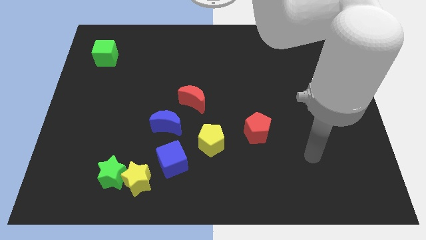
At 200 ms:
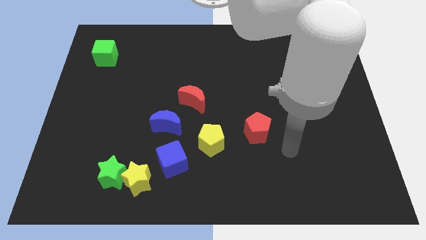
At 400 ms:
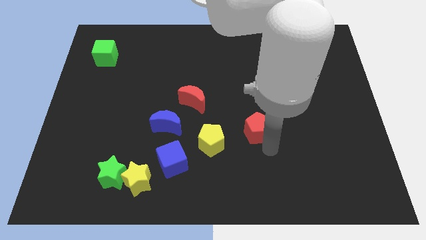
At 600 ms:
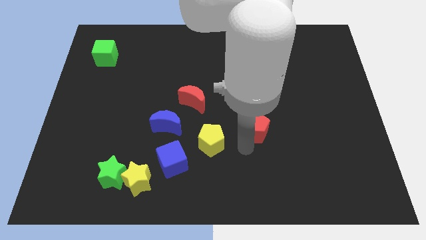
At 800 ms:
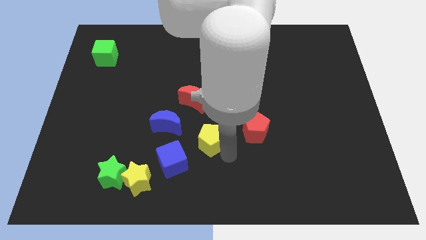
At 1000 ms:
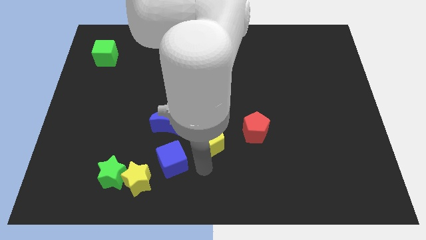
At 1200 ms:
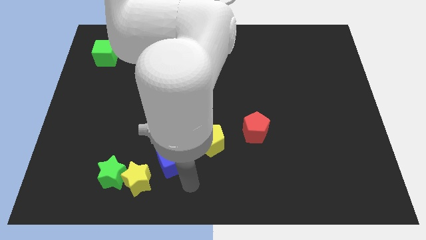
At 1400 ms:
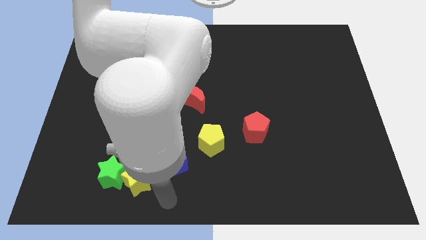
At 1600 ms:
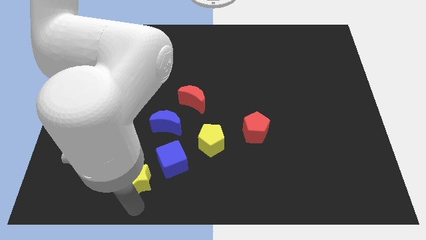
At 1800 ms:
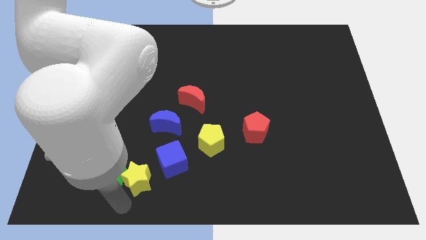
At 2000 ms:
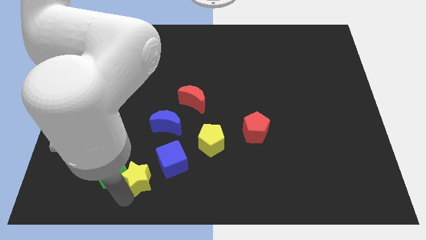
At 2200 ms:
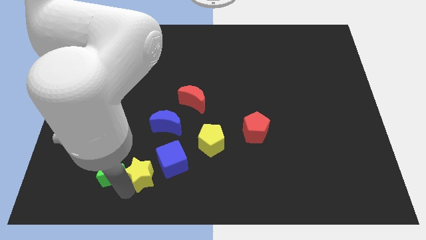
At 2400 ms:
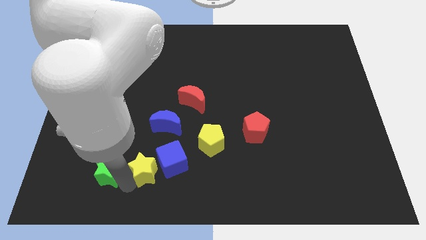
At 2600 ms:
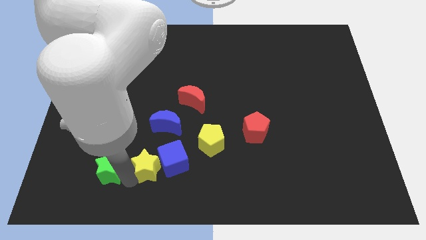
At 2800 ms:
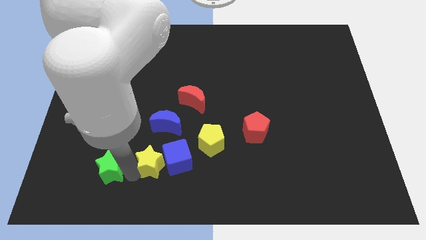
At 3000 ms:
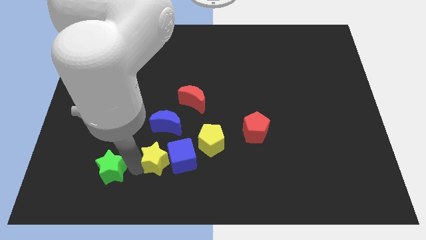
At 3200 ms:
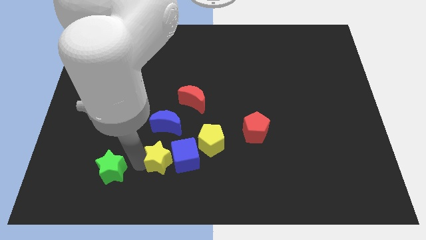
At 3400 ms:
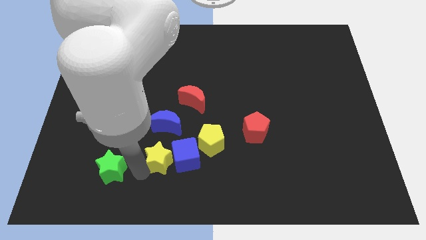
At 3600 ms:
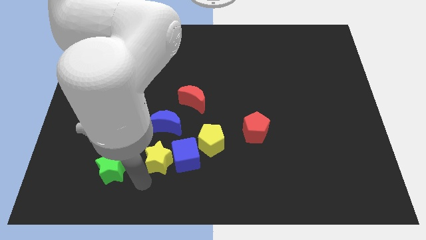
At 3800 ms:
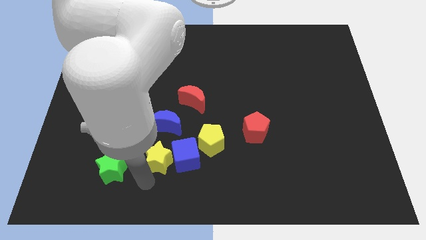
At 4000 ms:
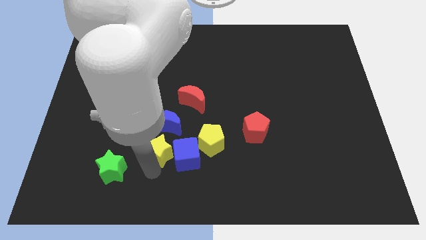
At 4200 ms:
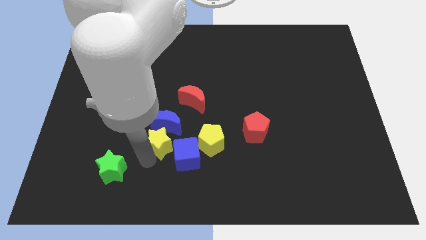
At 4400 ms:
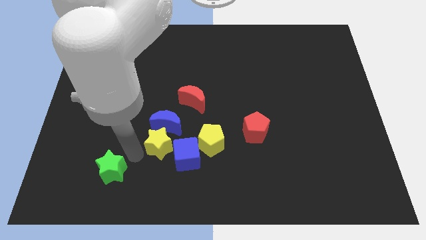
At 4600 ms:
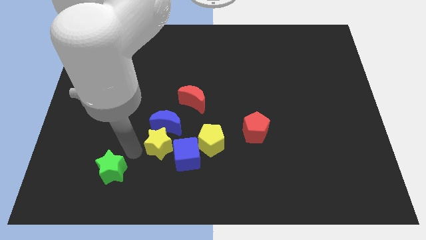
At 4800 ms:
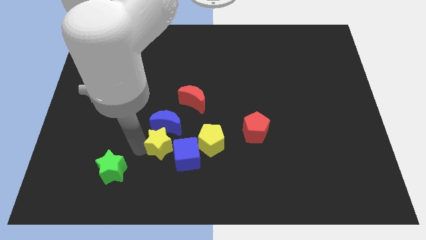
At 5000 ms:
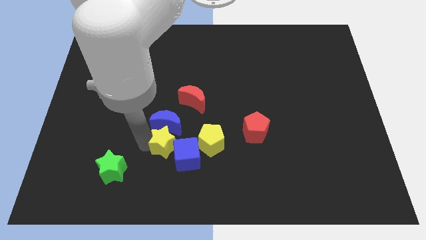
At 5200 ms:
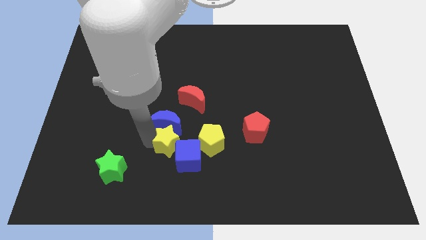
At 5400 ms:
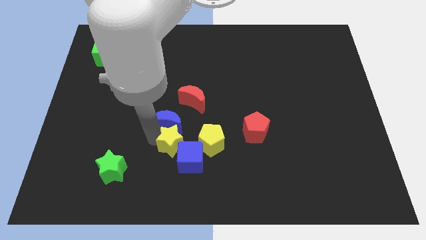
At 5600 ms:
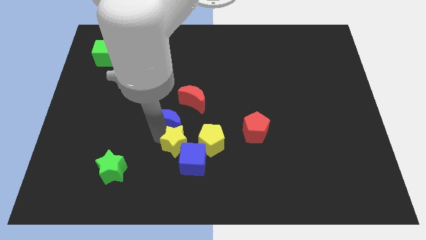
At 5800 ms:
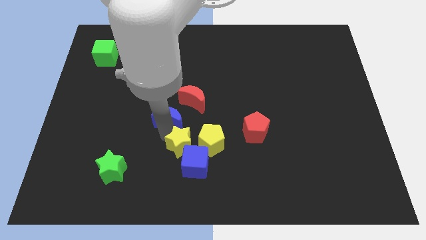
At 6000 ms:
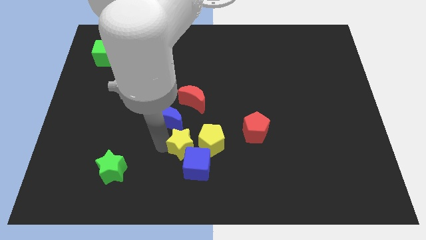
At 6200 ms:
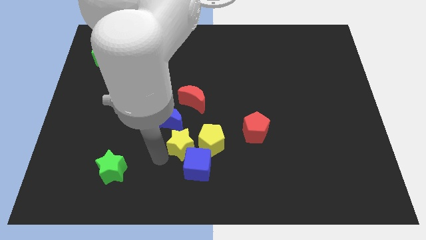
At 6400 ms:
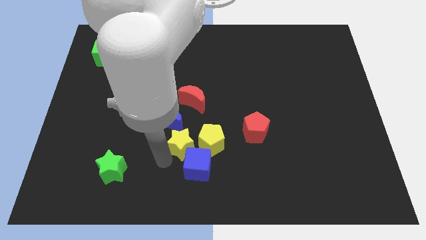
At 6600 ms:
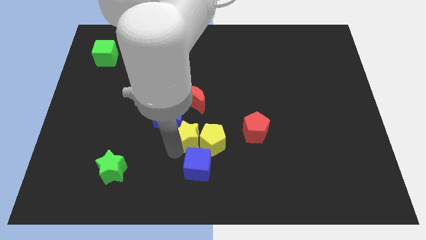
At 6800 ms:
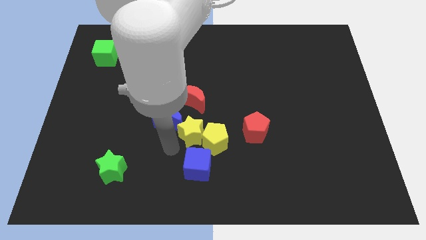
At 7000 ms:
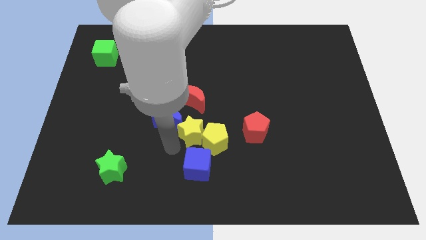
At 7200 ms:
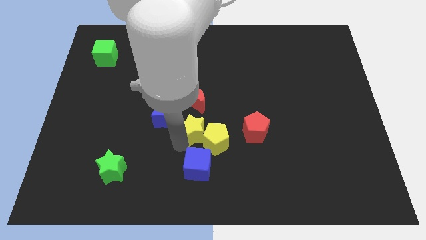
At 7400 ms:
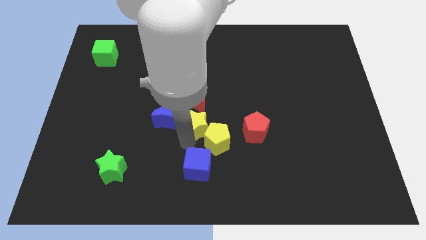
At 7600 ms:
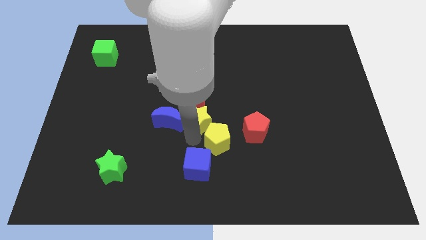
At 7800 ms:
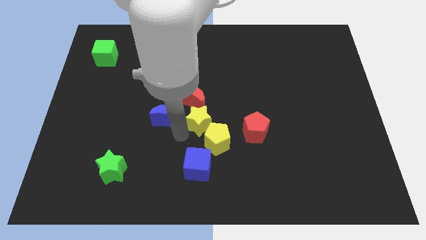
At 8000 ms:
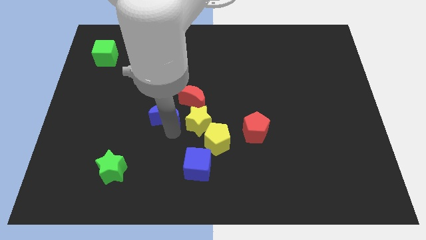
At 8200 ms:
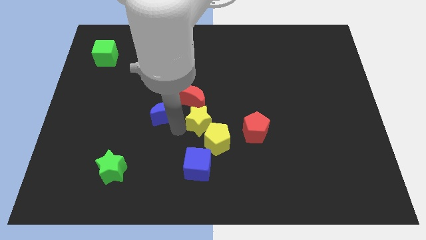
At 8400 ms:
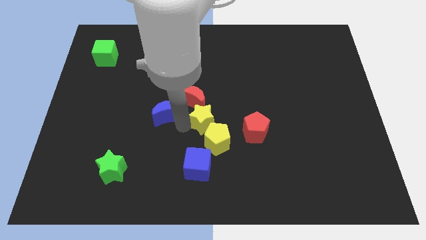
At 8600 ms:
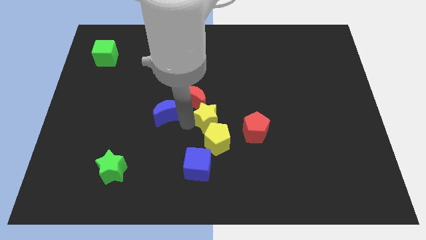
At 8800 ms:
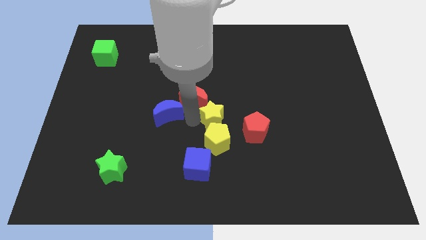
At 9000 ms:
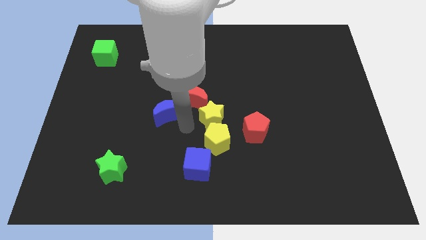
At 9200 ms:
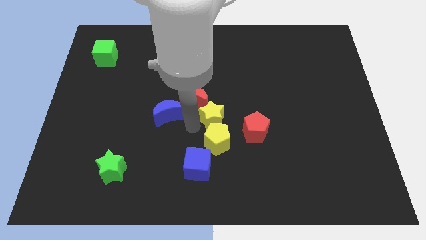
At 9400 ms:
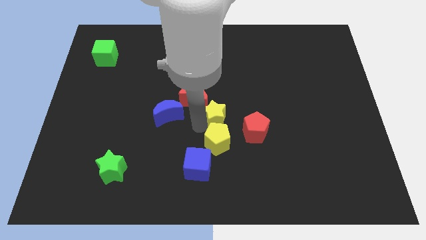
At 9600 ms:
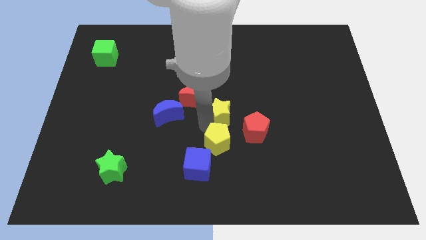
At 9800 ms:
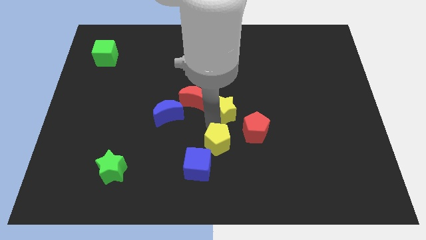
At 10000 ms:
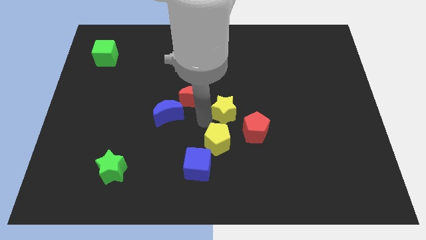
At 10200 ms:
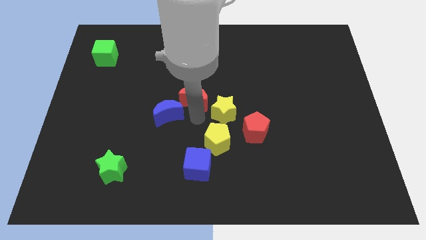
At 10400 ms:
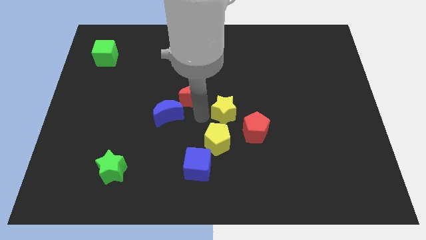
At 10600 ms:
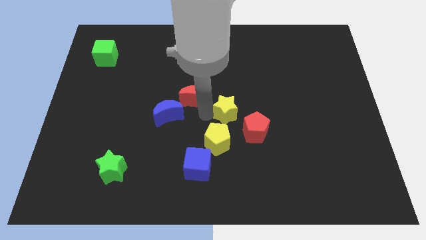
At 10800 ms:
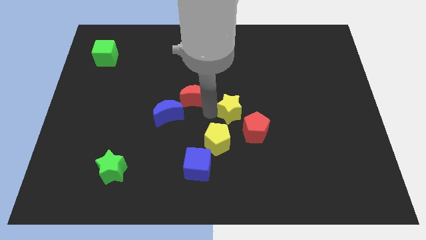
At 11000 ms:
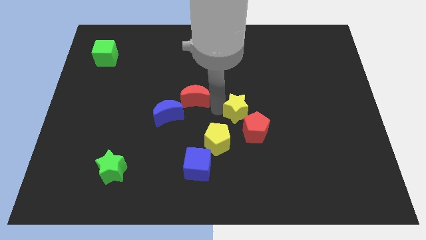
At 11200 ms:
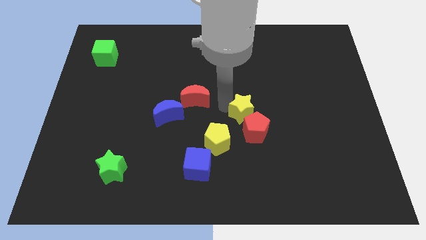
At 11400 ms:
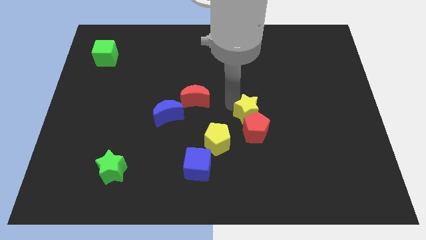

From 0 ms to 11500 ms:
push the yellow star diagonally up and to the right of the red pentagon

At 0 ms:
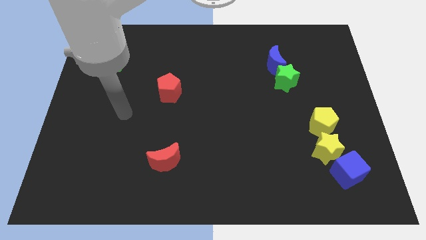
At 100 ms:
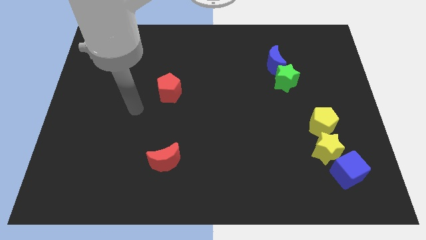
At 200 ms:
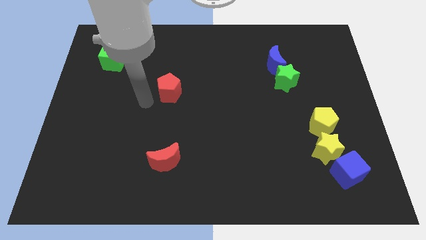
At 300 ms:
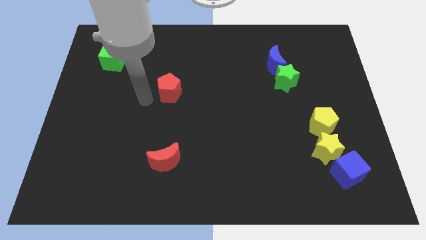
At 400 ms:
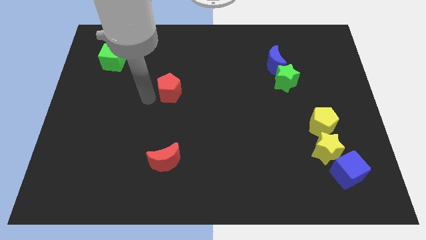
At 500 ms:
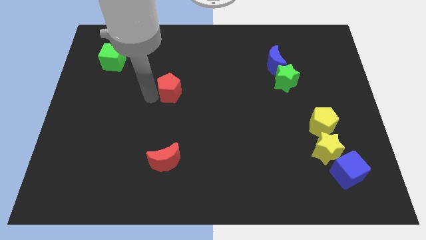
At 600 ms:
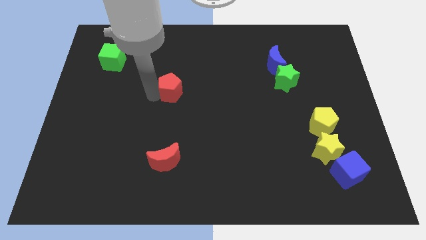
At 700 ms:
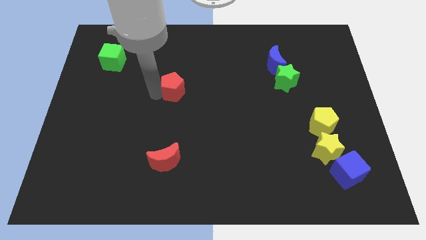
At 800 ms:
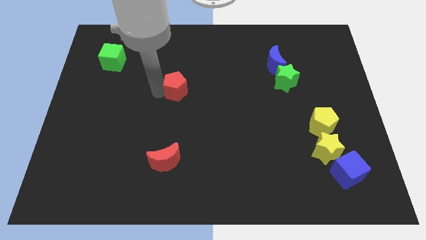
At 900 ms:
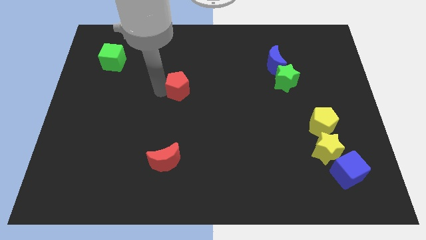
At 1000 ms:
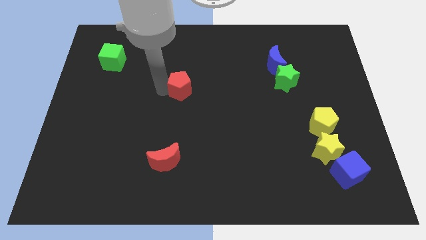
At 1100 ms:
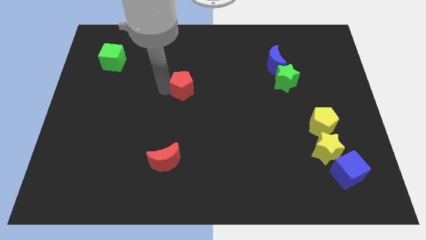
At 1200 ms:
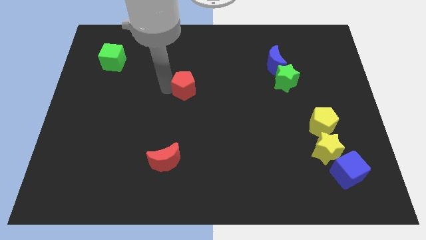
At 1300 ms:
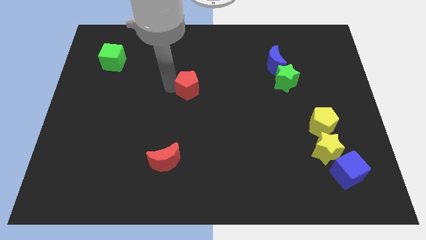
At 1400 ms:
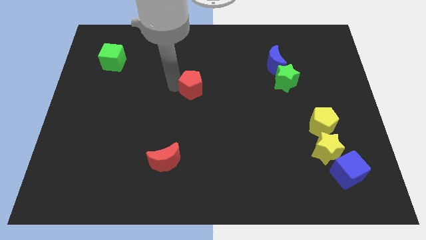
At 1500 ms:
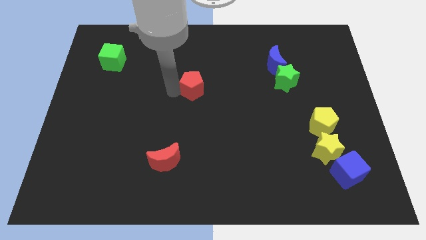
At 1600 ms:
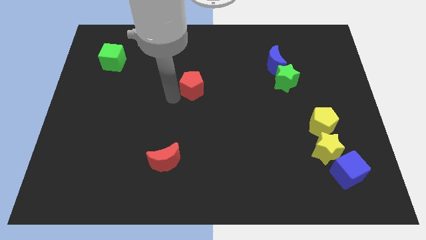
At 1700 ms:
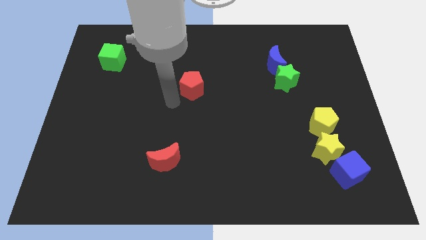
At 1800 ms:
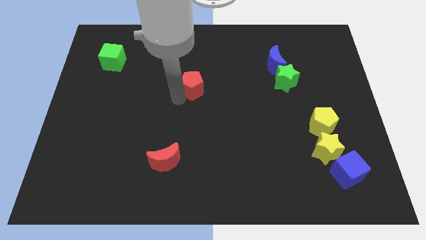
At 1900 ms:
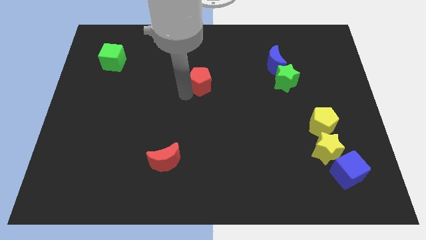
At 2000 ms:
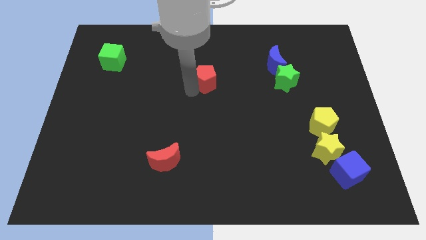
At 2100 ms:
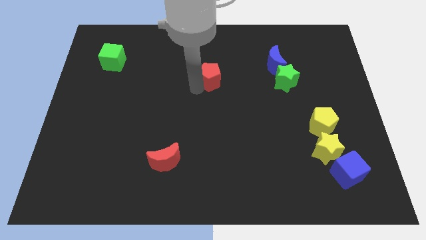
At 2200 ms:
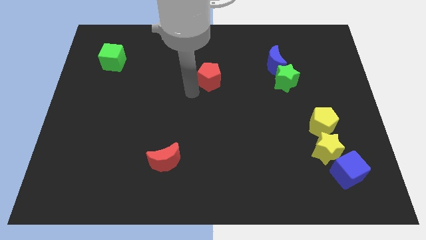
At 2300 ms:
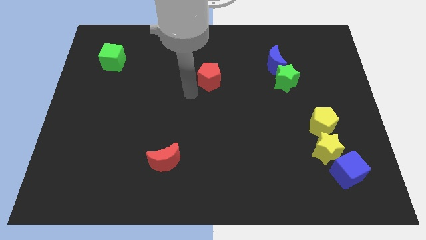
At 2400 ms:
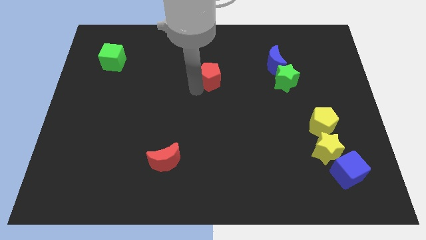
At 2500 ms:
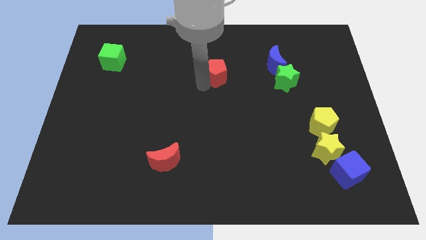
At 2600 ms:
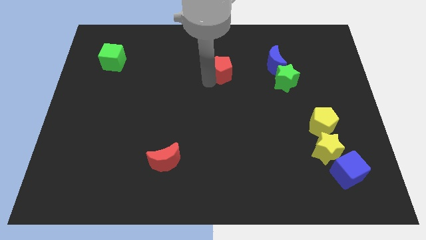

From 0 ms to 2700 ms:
slide the red pentagon to the left of the blue moon
